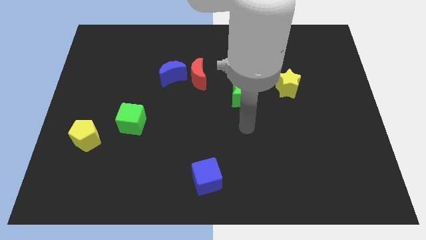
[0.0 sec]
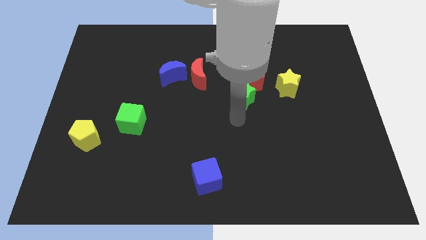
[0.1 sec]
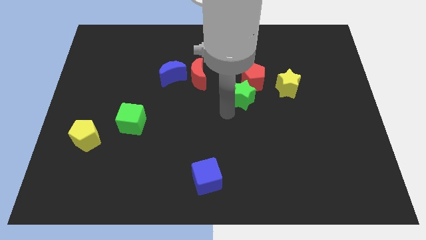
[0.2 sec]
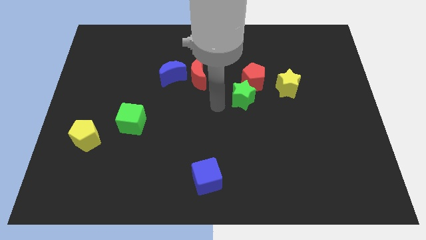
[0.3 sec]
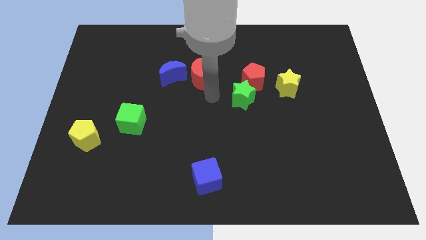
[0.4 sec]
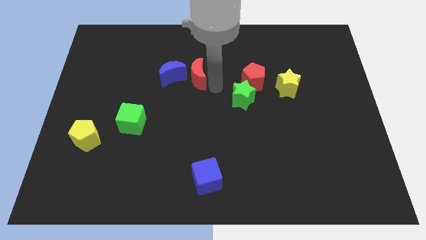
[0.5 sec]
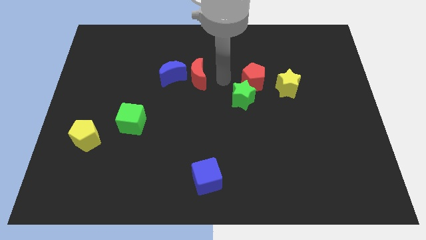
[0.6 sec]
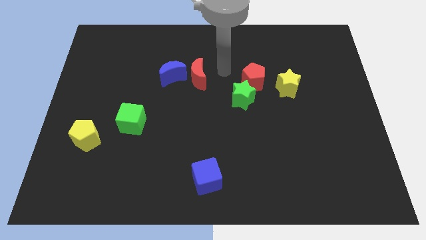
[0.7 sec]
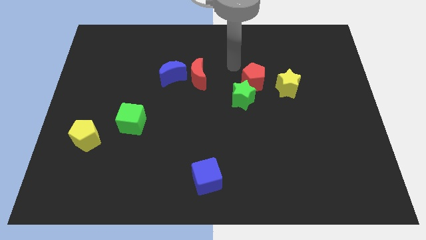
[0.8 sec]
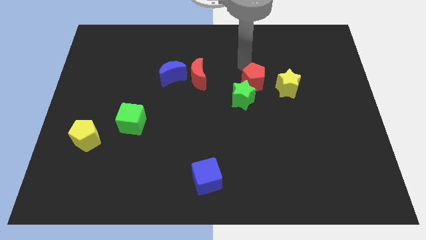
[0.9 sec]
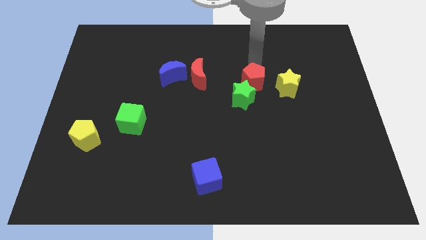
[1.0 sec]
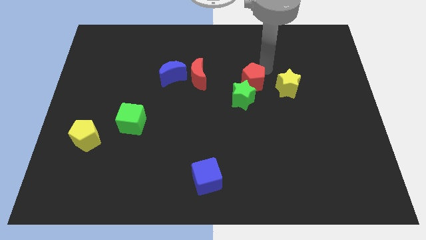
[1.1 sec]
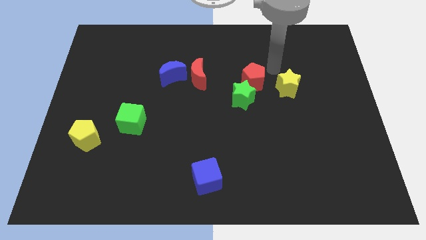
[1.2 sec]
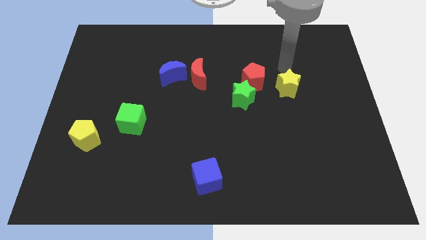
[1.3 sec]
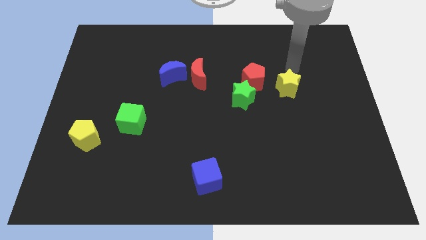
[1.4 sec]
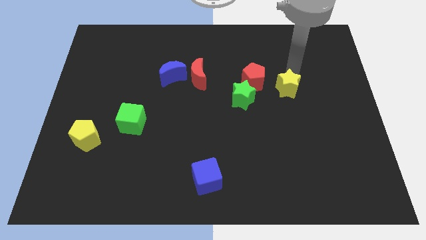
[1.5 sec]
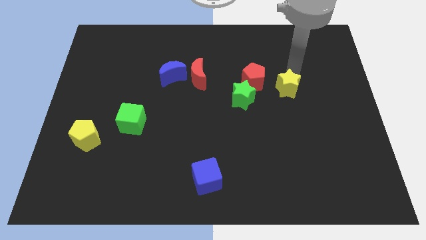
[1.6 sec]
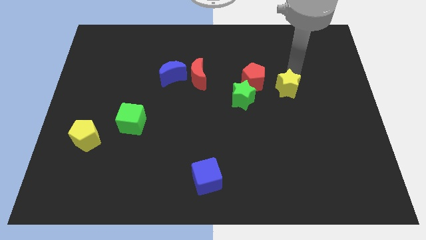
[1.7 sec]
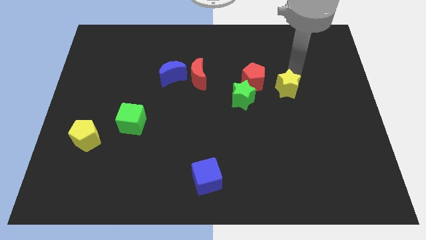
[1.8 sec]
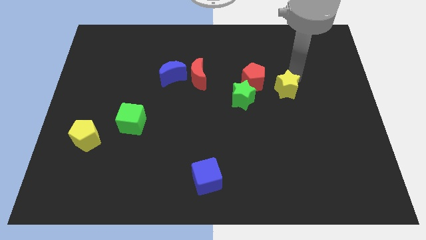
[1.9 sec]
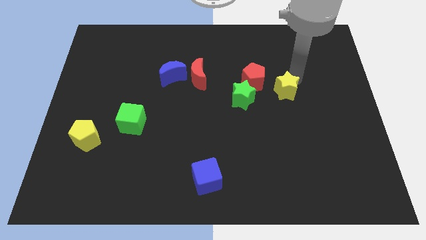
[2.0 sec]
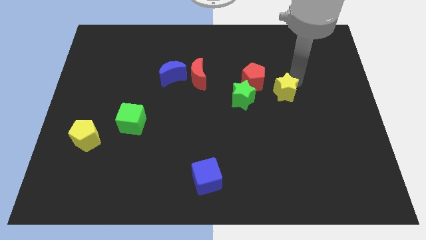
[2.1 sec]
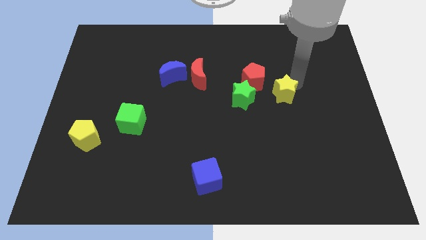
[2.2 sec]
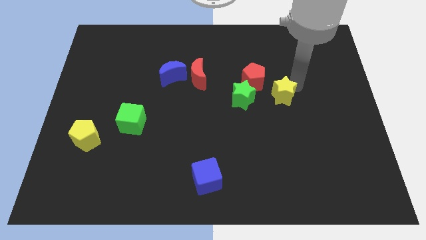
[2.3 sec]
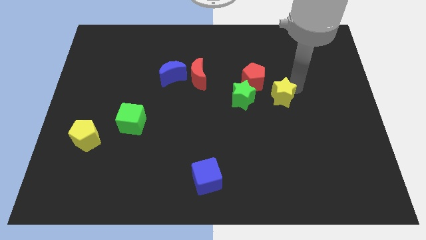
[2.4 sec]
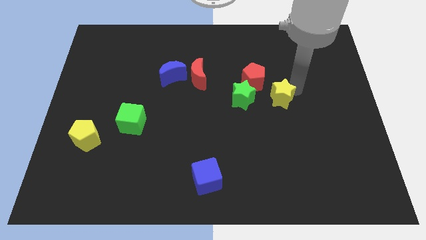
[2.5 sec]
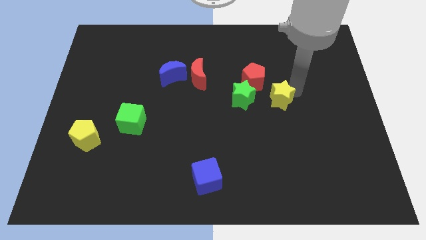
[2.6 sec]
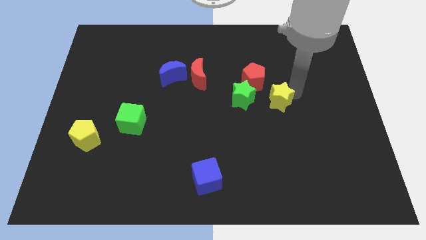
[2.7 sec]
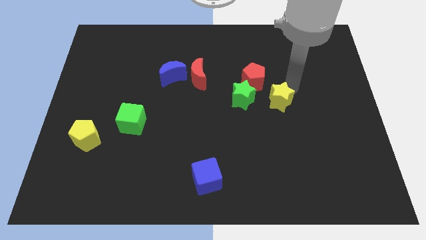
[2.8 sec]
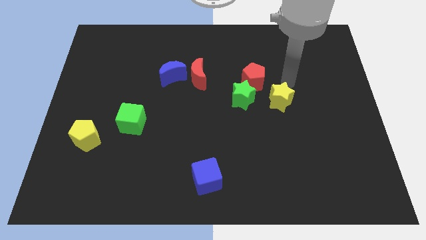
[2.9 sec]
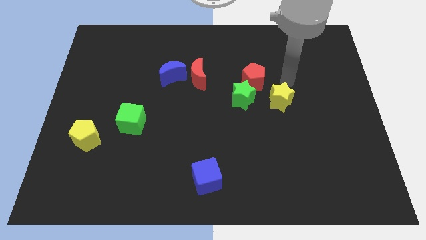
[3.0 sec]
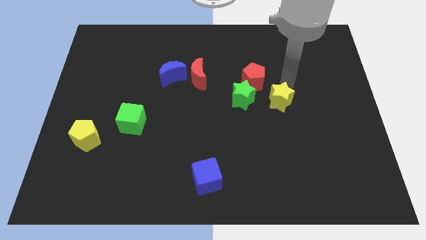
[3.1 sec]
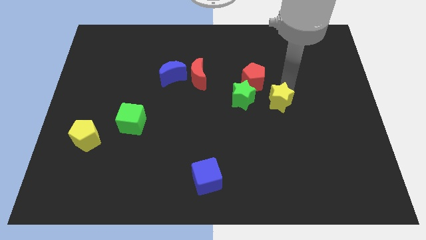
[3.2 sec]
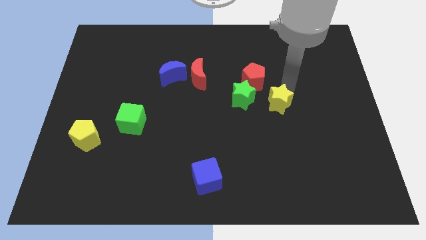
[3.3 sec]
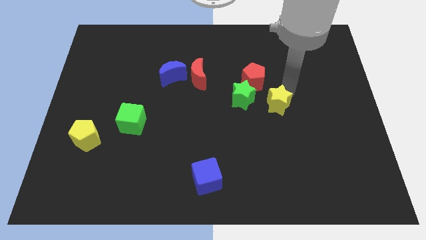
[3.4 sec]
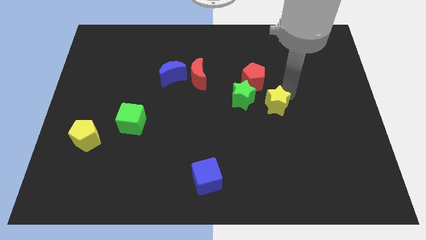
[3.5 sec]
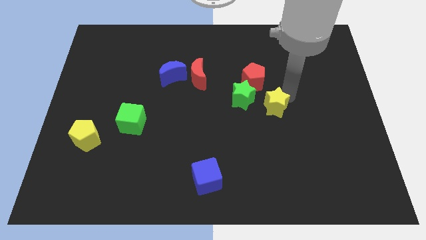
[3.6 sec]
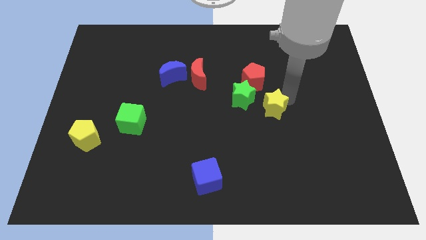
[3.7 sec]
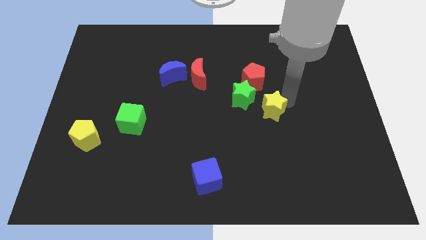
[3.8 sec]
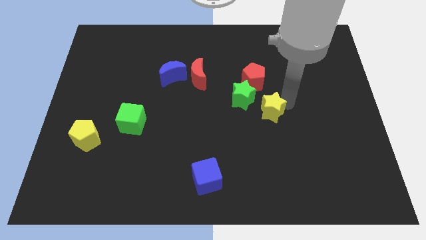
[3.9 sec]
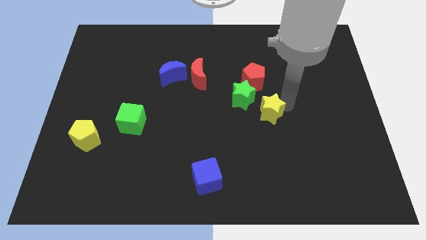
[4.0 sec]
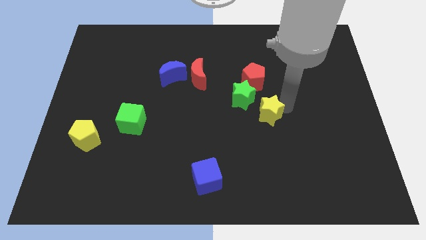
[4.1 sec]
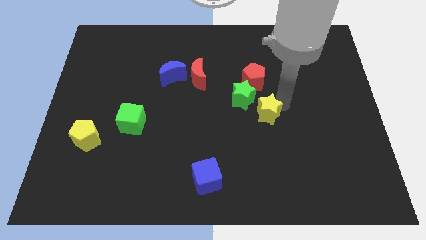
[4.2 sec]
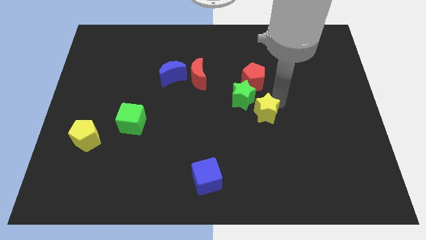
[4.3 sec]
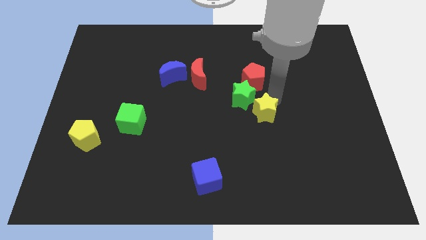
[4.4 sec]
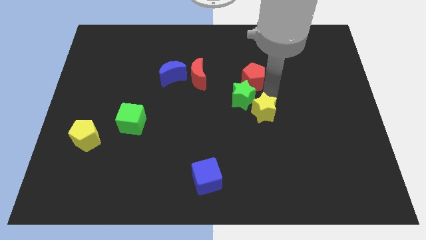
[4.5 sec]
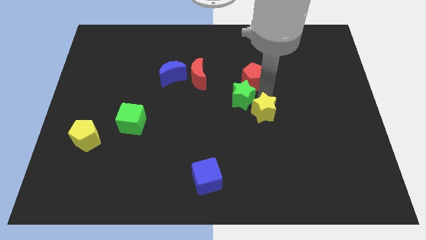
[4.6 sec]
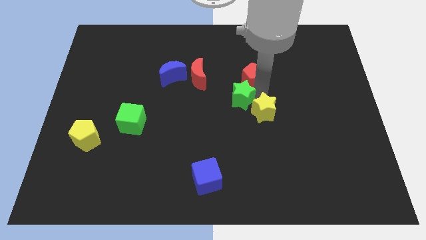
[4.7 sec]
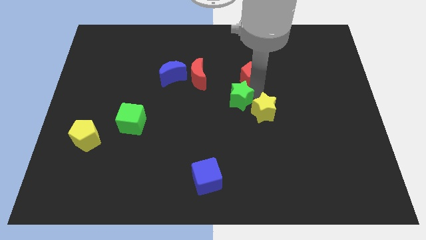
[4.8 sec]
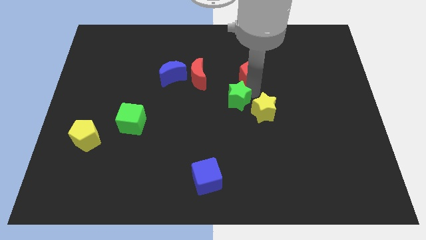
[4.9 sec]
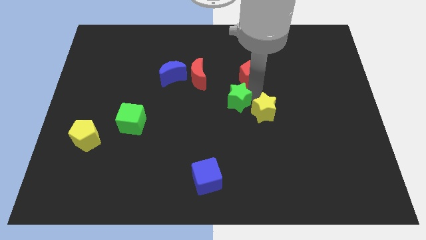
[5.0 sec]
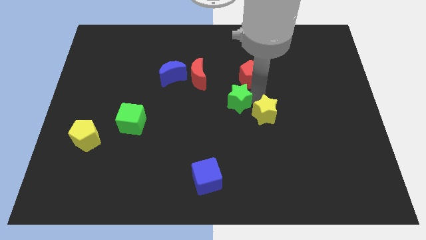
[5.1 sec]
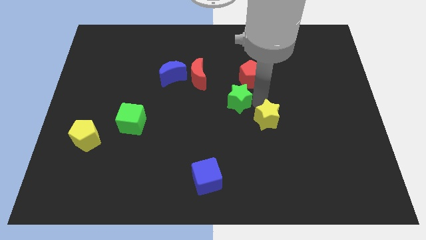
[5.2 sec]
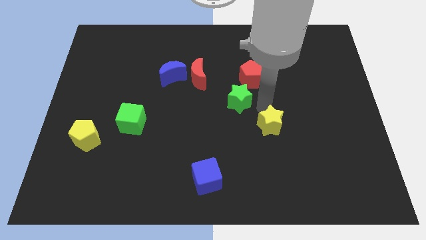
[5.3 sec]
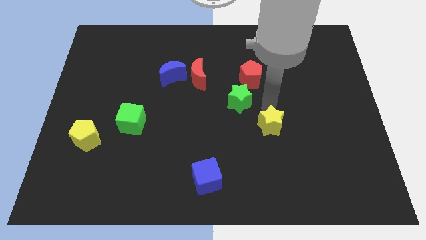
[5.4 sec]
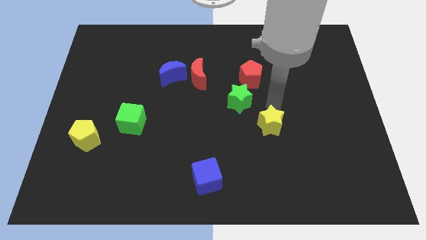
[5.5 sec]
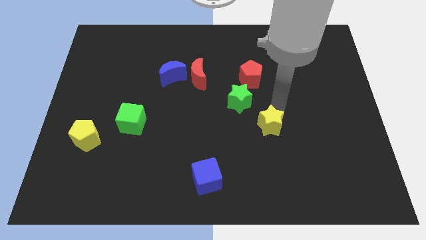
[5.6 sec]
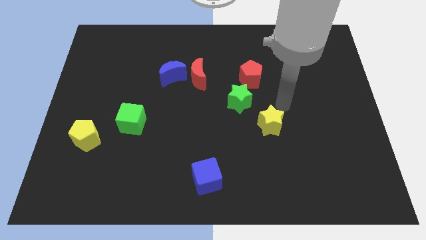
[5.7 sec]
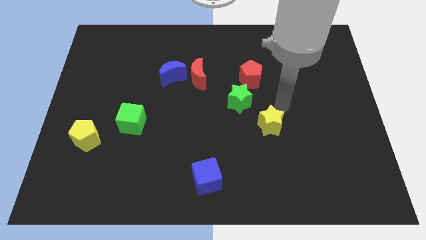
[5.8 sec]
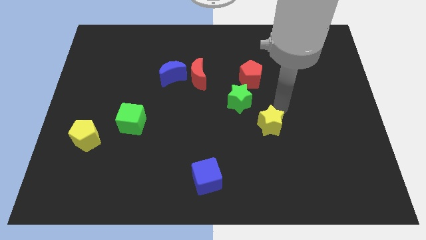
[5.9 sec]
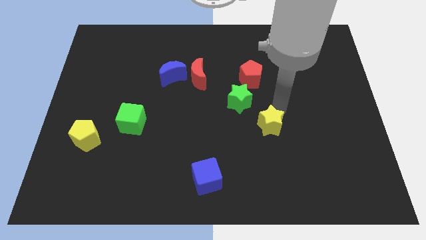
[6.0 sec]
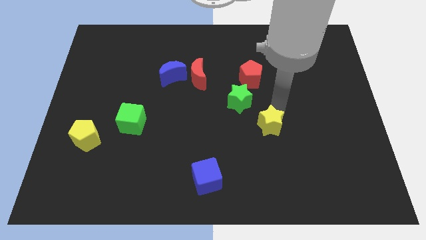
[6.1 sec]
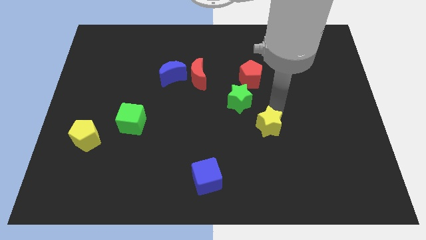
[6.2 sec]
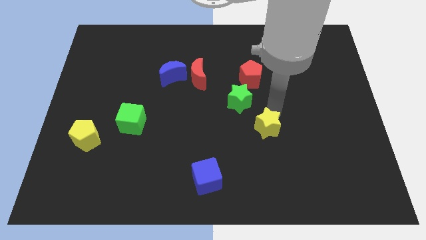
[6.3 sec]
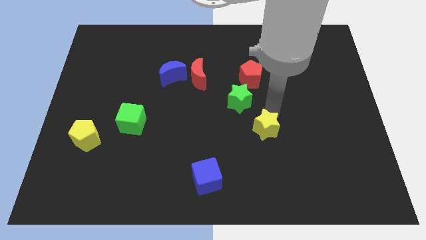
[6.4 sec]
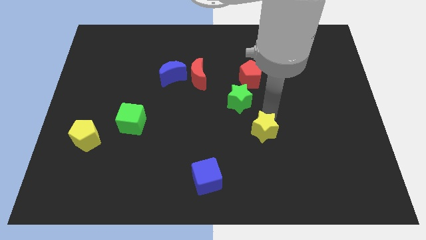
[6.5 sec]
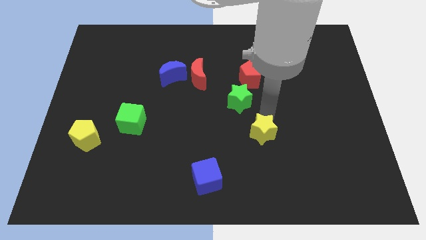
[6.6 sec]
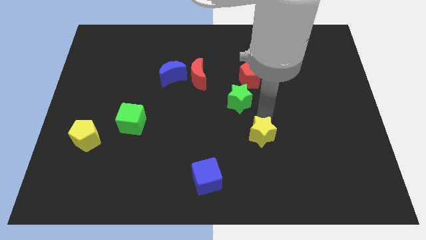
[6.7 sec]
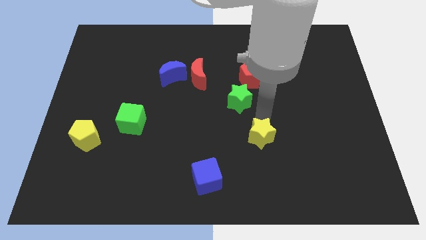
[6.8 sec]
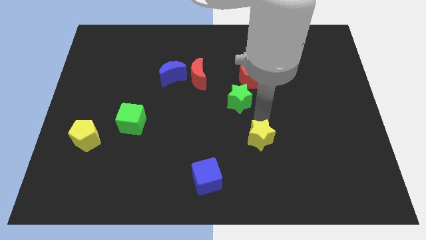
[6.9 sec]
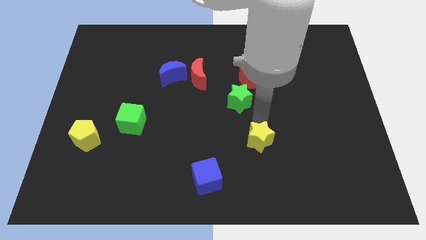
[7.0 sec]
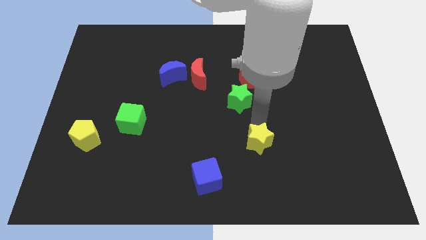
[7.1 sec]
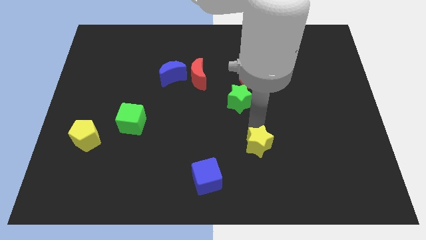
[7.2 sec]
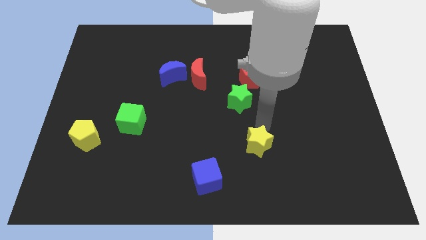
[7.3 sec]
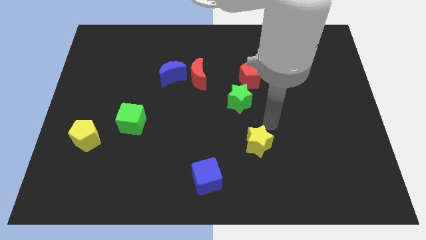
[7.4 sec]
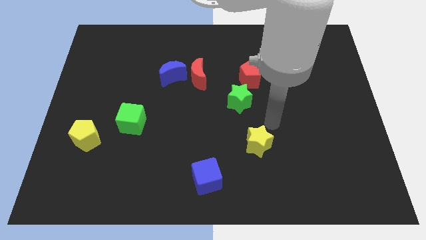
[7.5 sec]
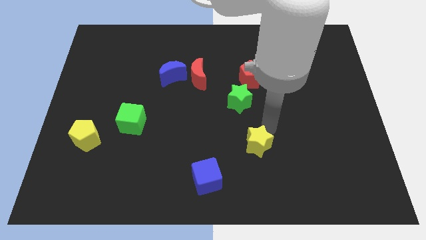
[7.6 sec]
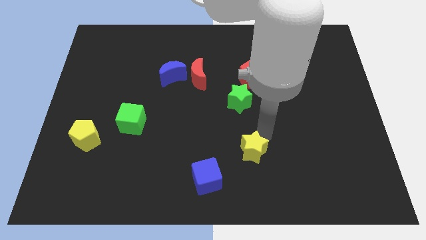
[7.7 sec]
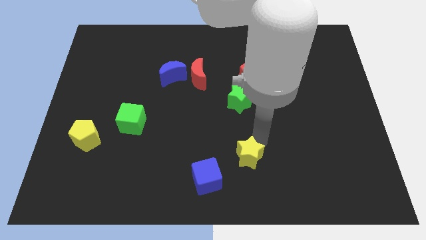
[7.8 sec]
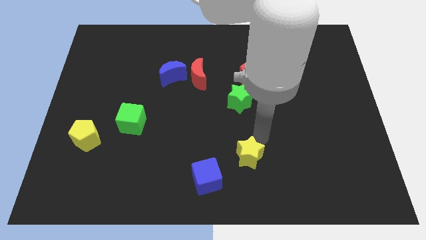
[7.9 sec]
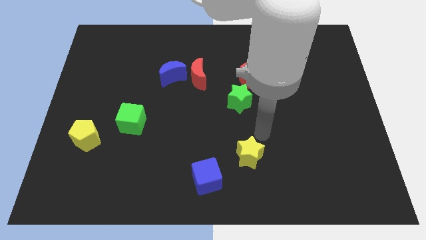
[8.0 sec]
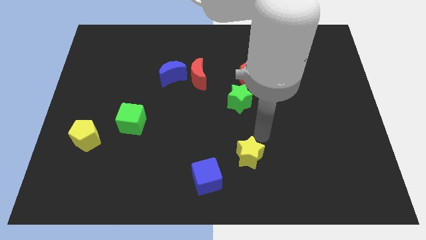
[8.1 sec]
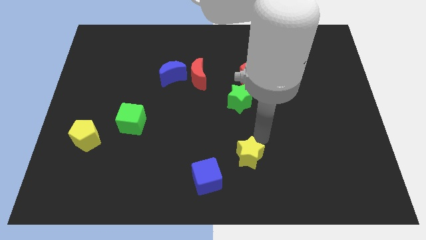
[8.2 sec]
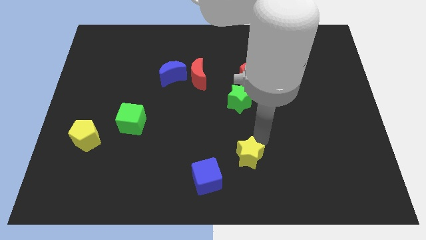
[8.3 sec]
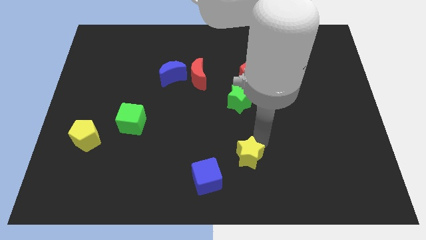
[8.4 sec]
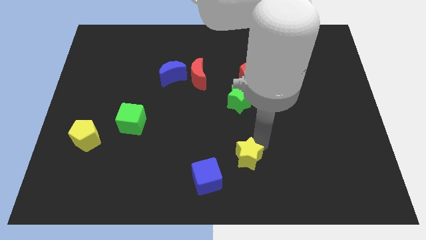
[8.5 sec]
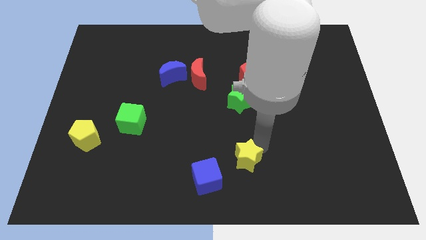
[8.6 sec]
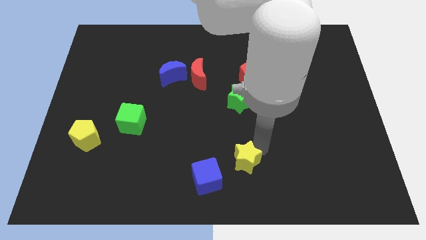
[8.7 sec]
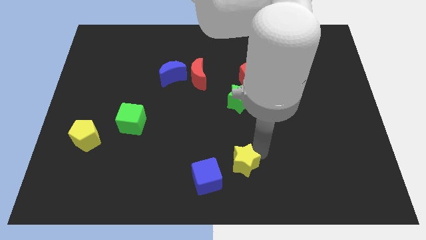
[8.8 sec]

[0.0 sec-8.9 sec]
move the yellow star to the bottom side
